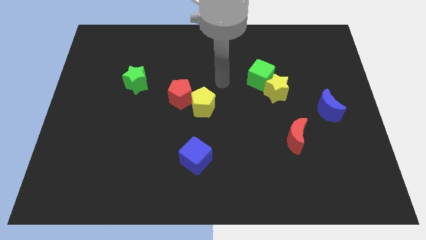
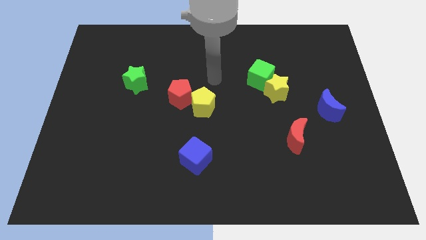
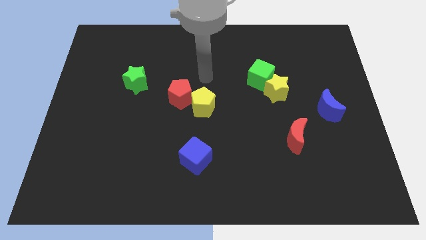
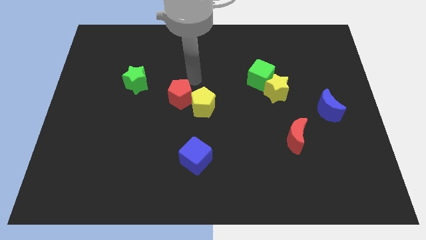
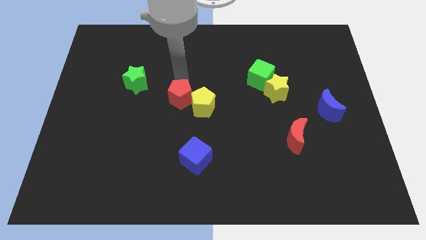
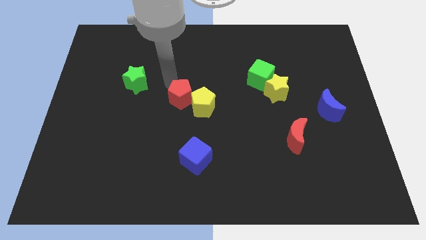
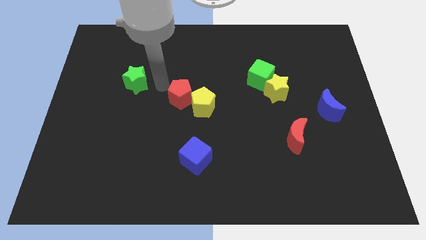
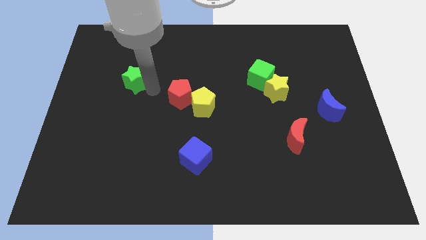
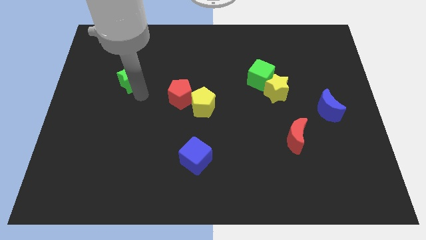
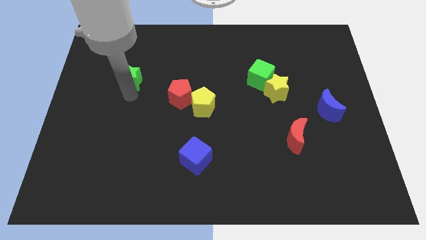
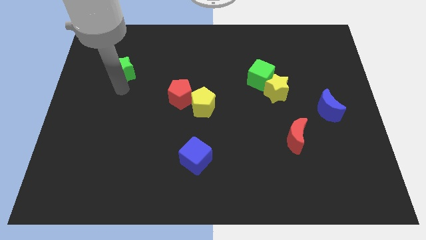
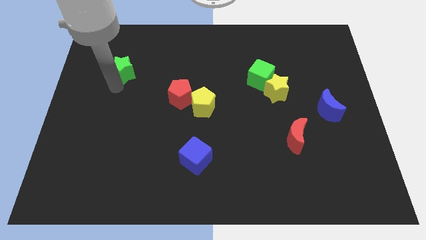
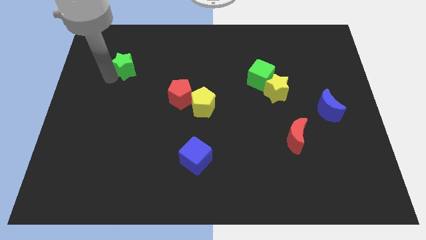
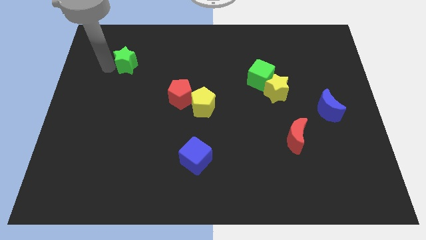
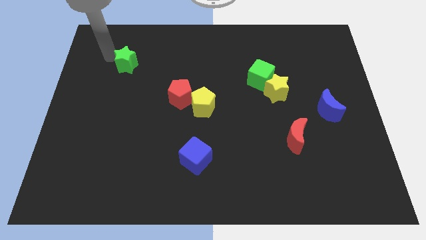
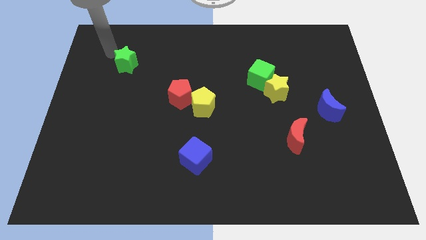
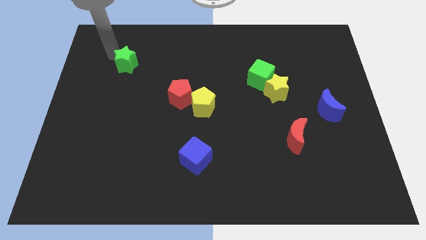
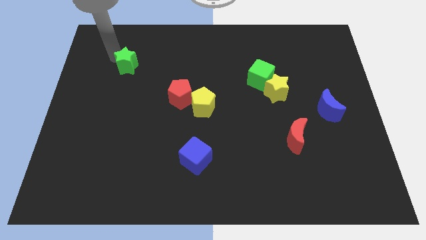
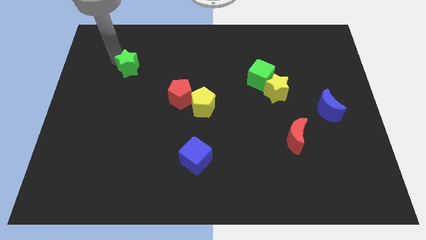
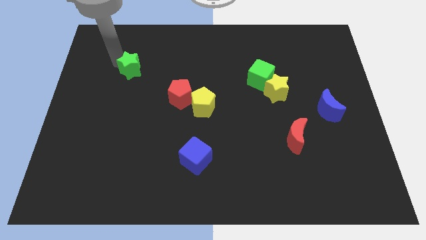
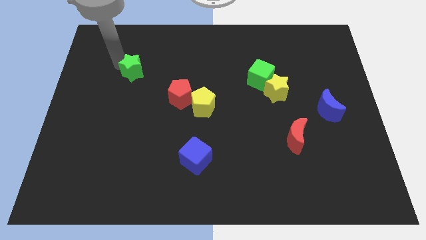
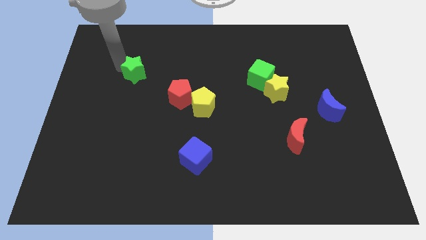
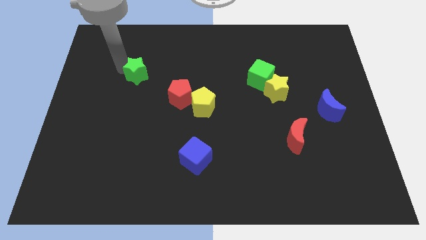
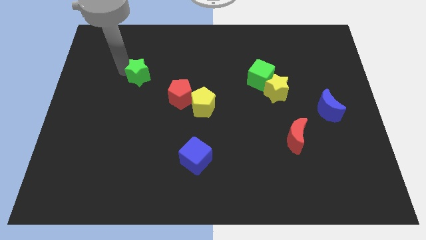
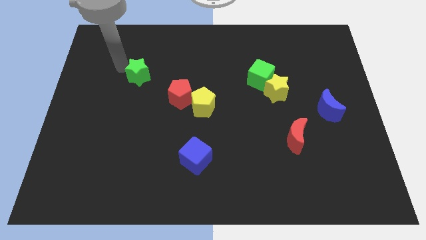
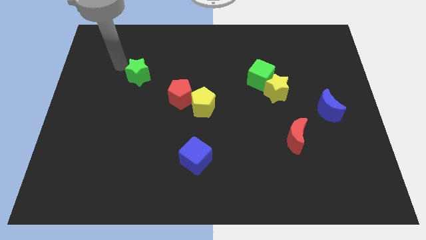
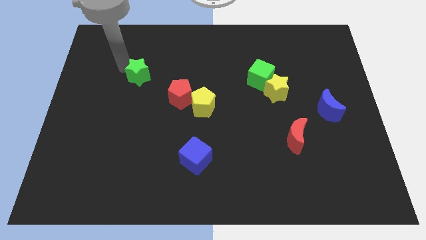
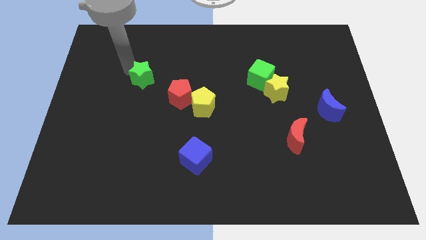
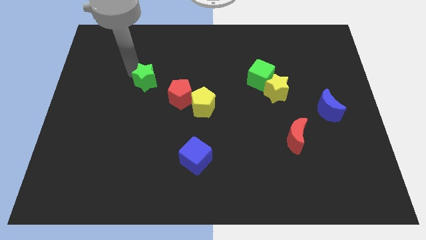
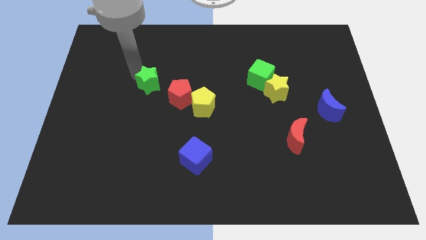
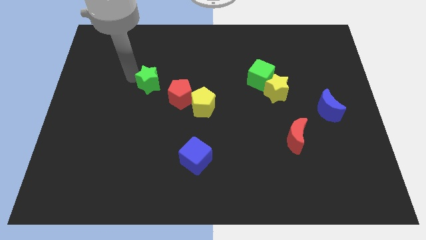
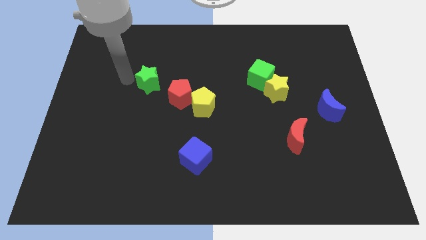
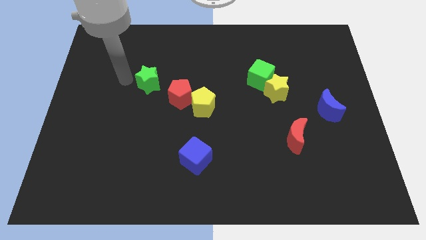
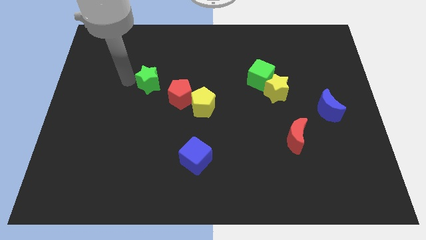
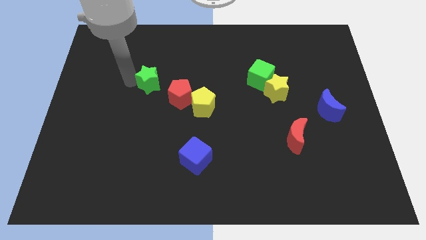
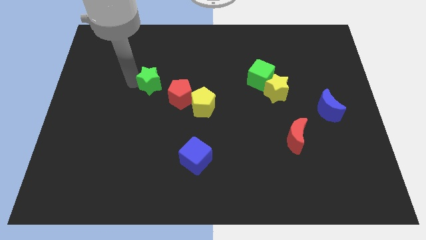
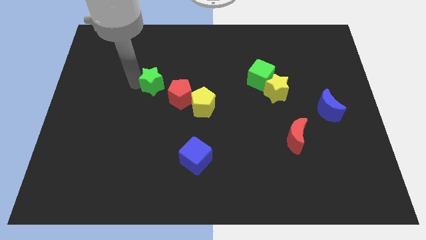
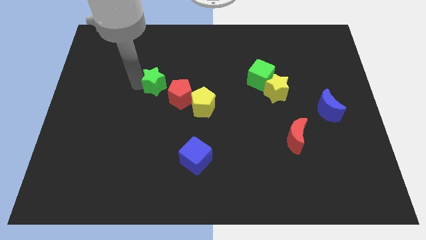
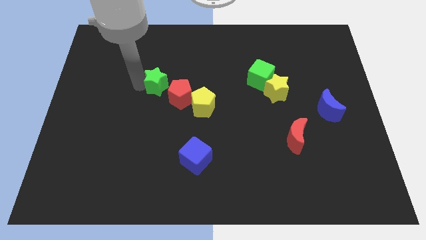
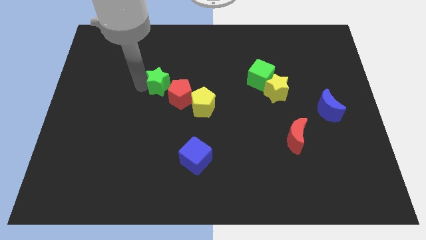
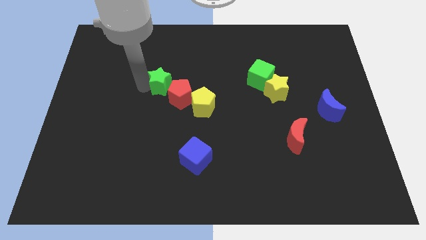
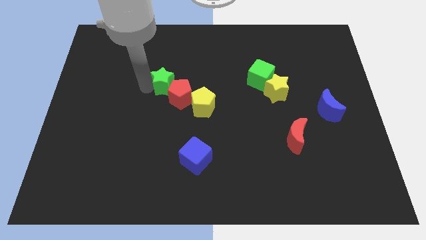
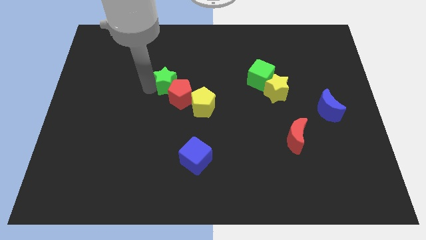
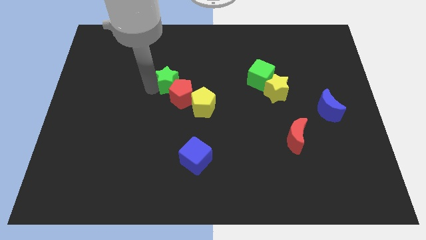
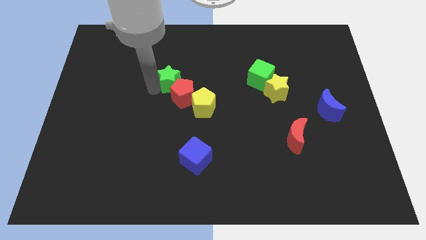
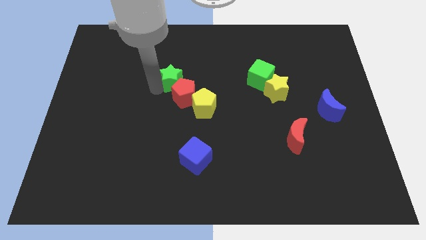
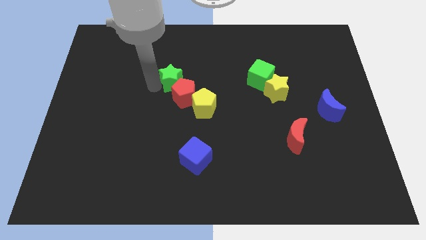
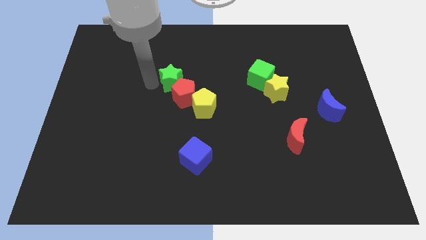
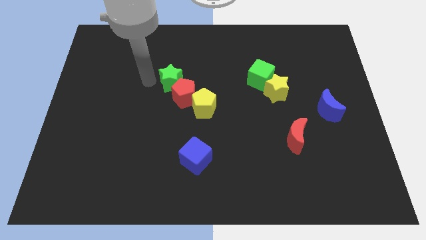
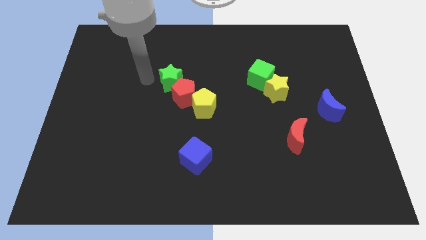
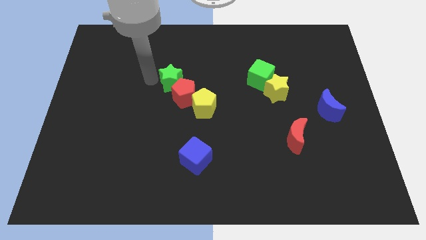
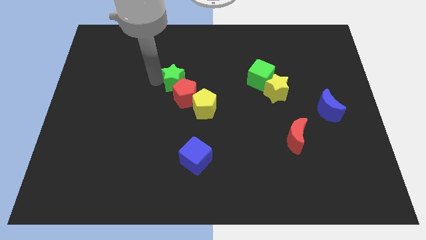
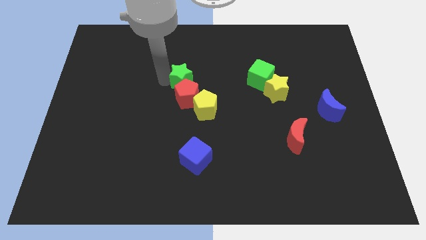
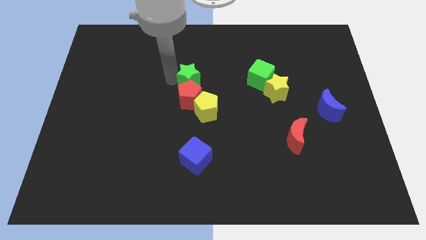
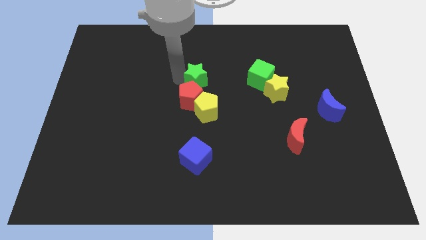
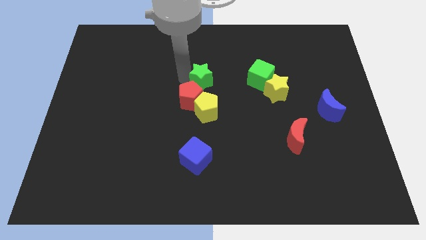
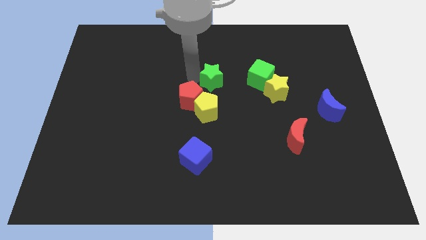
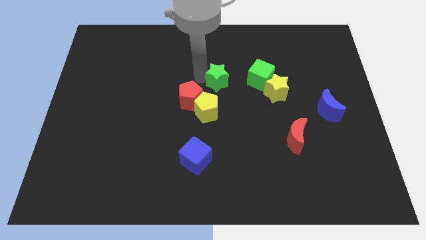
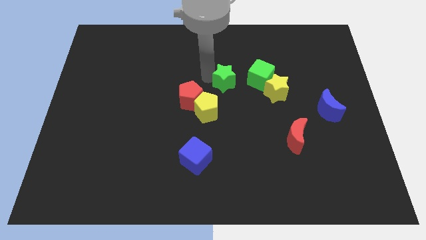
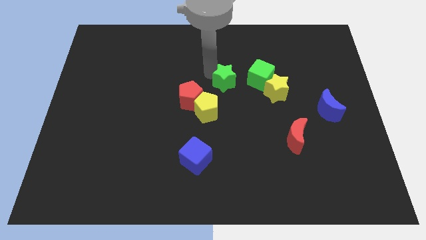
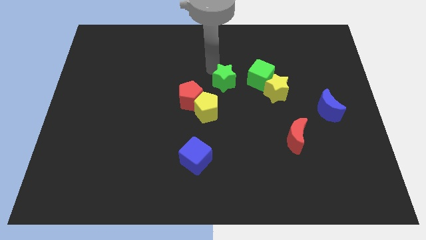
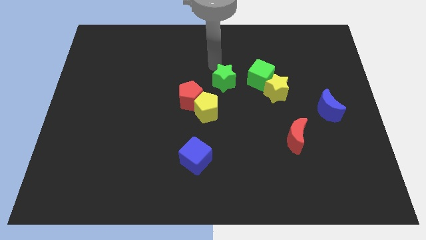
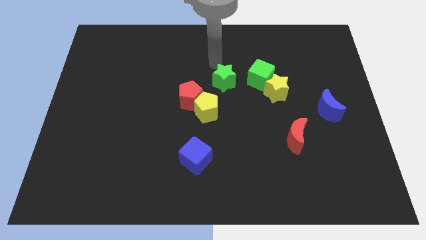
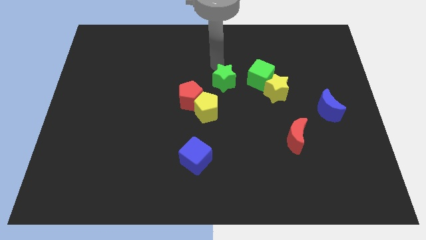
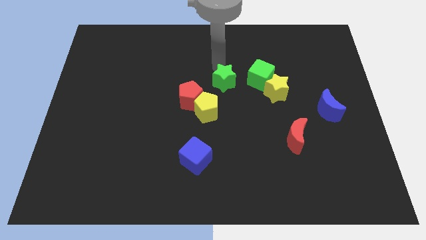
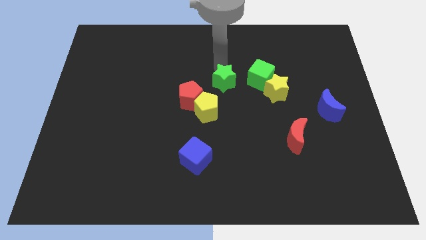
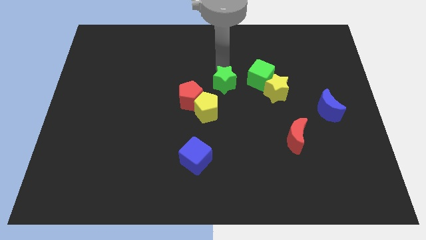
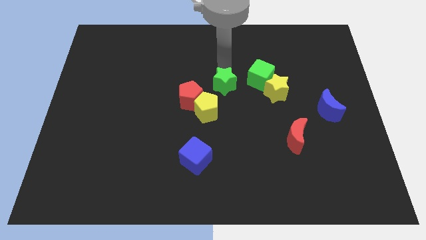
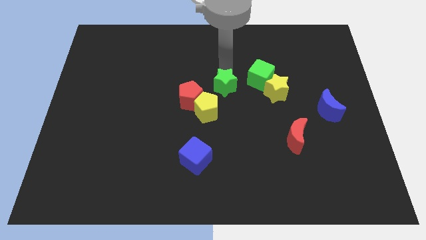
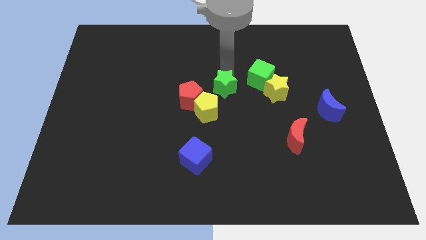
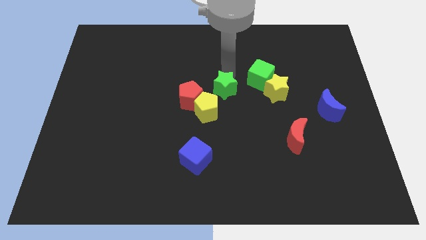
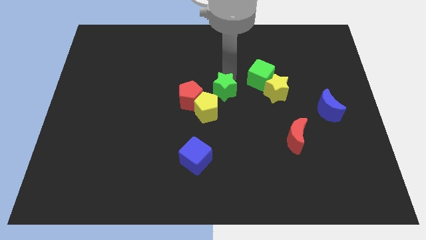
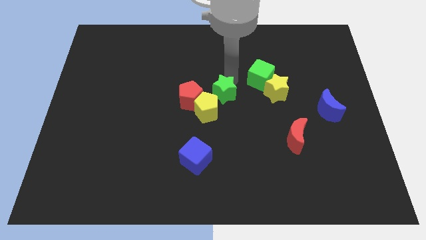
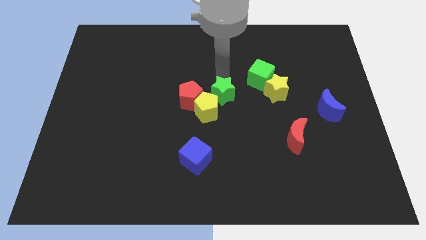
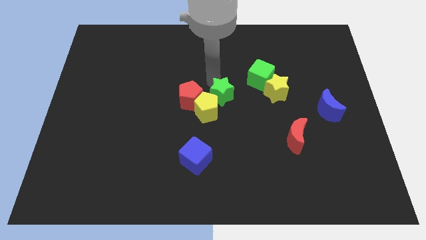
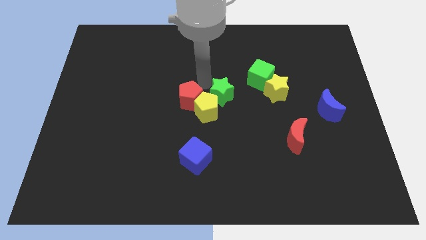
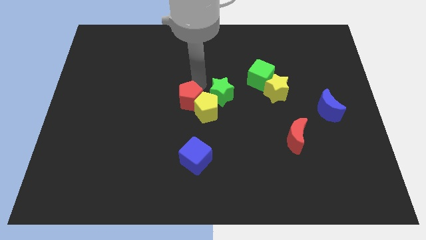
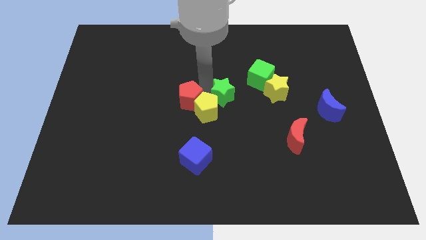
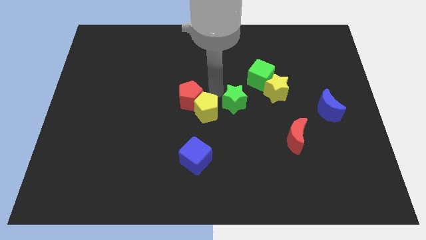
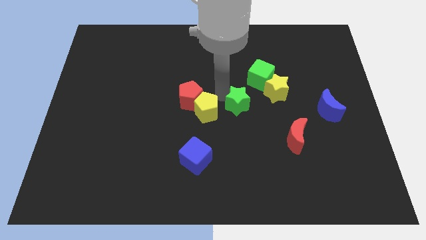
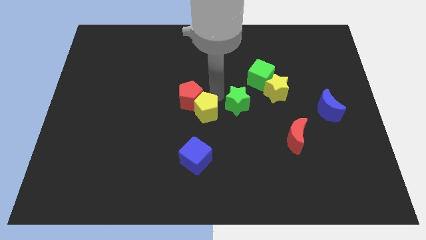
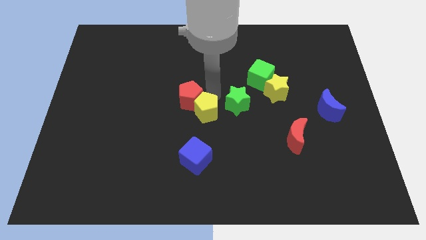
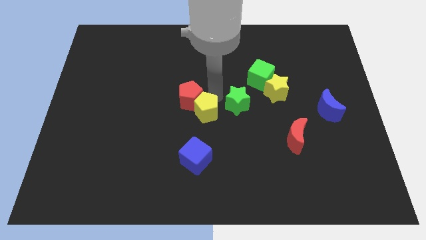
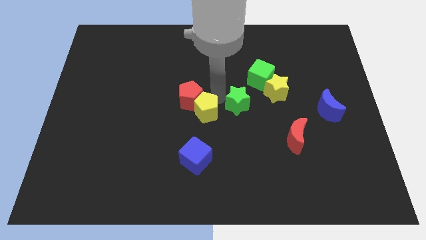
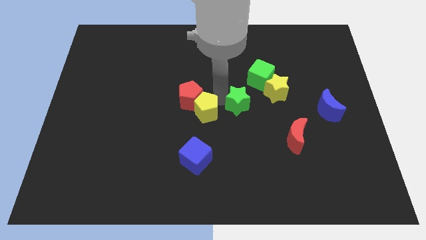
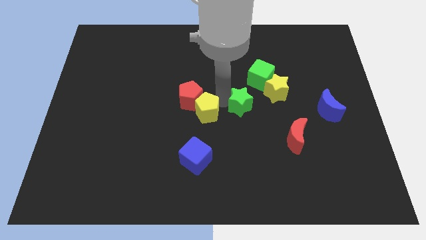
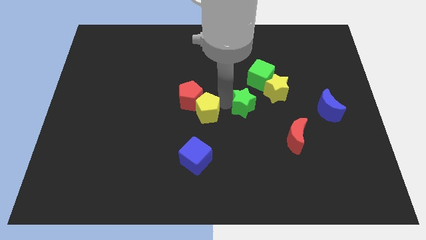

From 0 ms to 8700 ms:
slide the green star to the bottom side of the green cube
